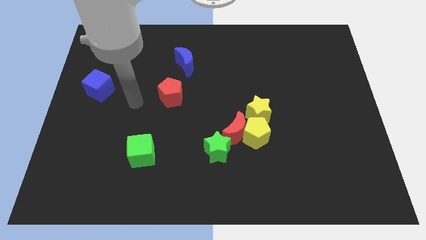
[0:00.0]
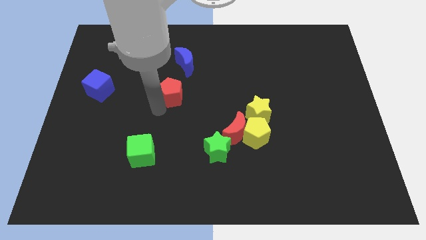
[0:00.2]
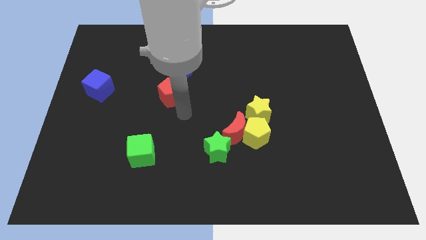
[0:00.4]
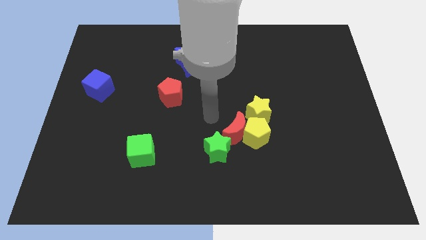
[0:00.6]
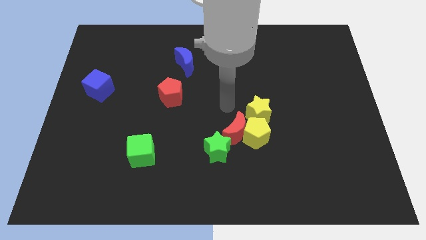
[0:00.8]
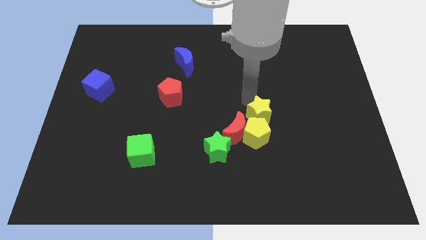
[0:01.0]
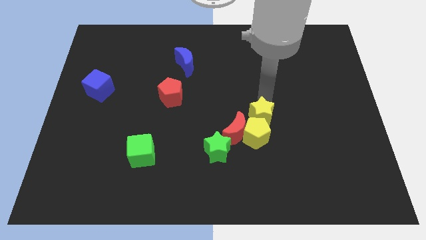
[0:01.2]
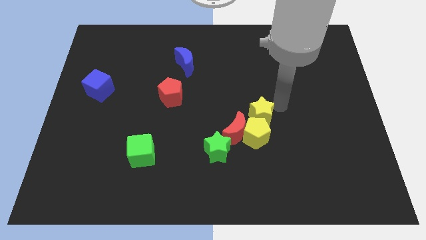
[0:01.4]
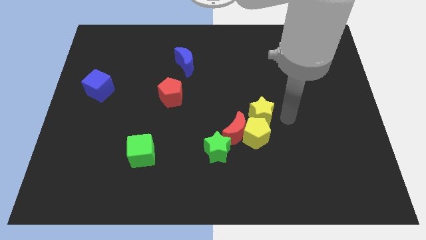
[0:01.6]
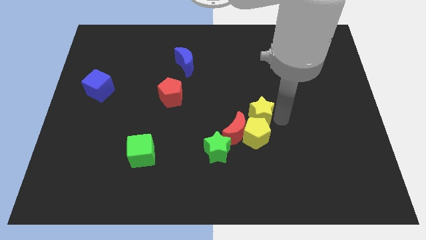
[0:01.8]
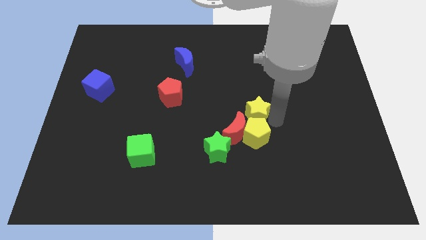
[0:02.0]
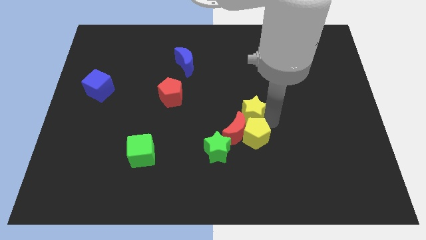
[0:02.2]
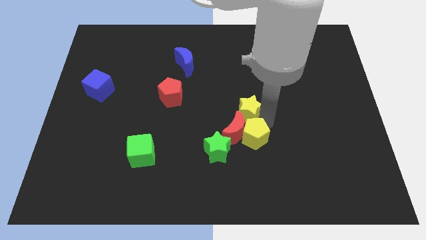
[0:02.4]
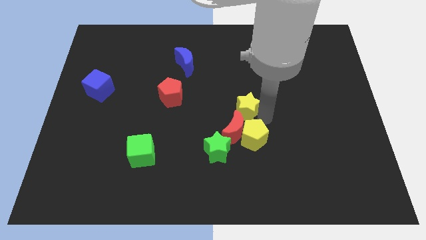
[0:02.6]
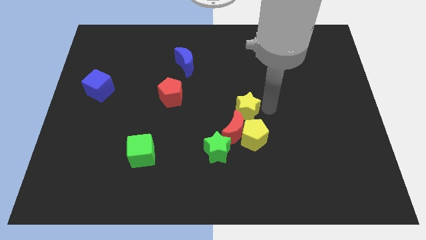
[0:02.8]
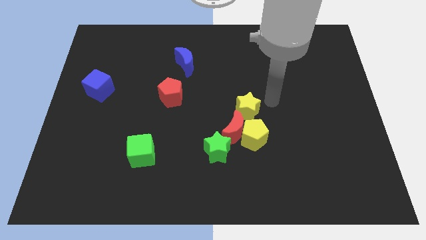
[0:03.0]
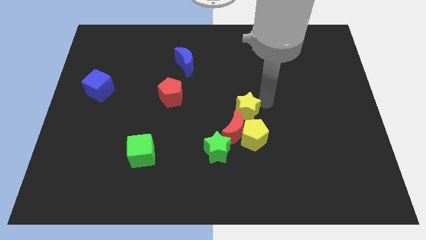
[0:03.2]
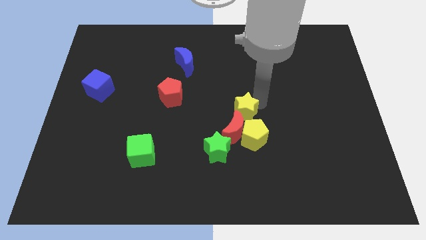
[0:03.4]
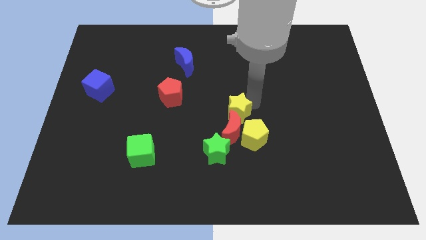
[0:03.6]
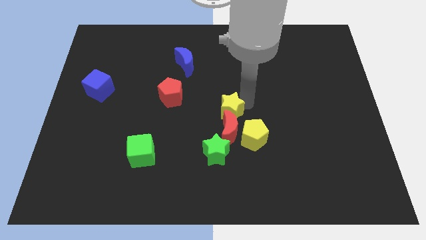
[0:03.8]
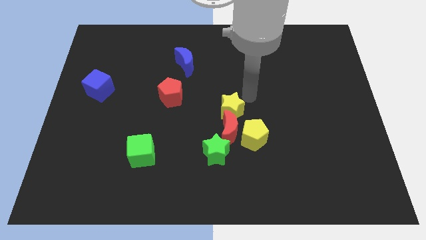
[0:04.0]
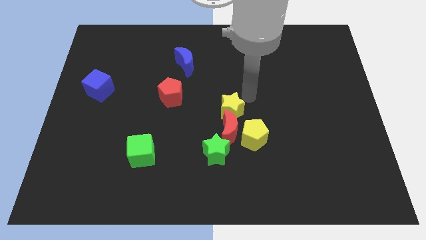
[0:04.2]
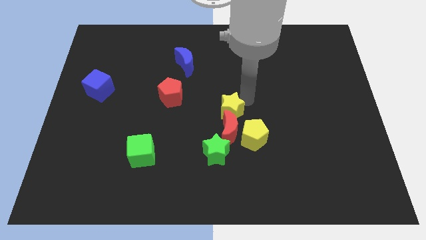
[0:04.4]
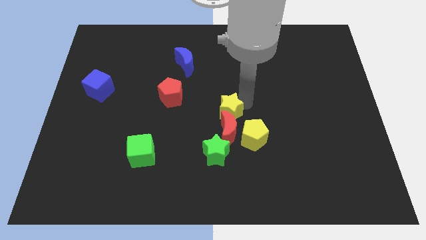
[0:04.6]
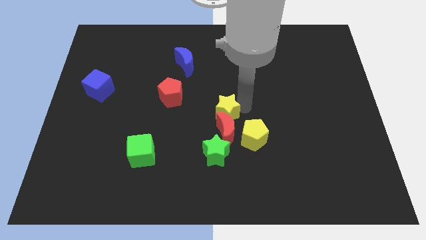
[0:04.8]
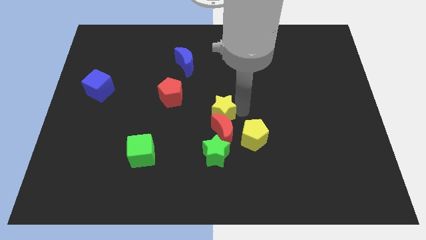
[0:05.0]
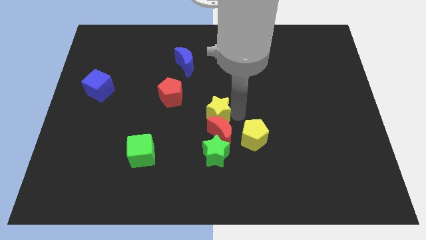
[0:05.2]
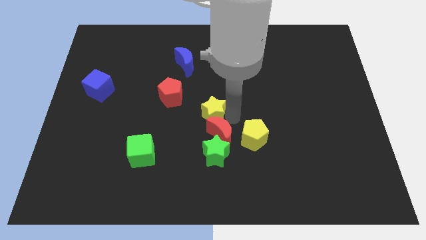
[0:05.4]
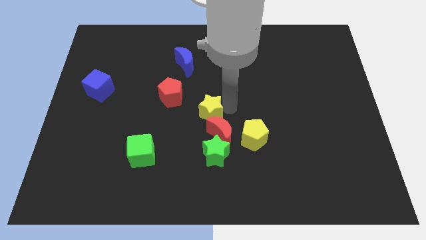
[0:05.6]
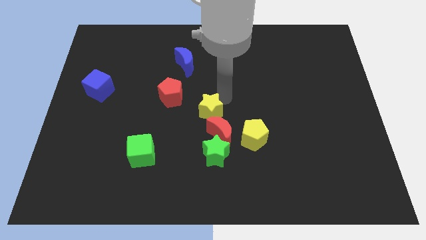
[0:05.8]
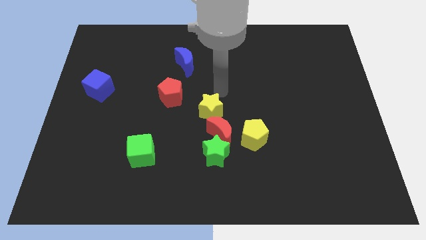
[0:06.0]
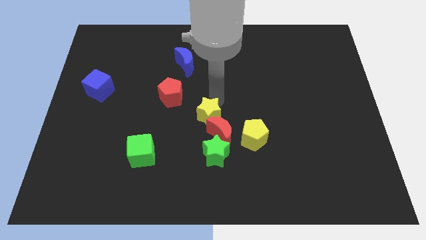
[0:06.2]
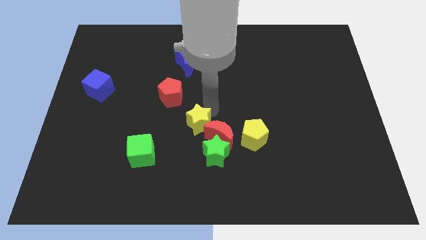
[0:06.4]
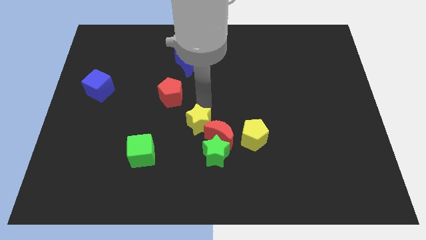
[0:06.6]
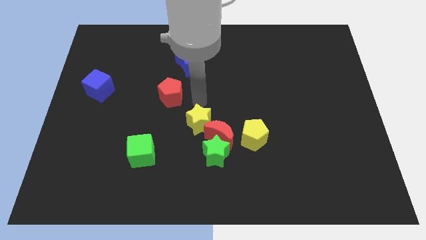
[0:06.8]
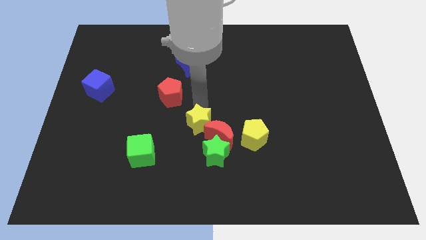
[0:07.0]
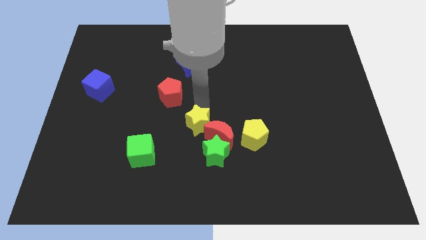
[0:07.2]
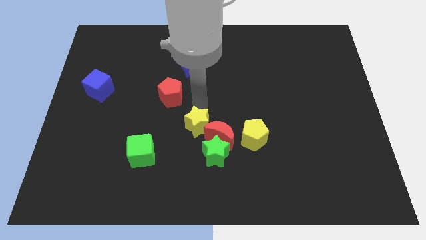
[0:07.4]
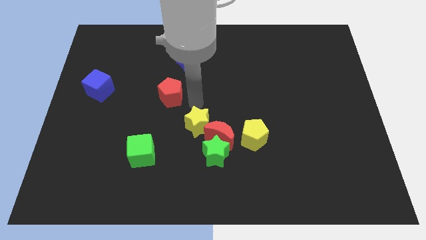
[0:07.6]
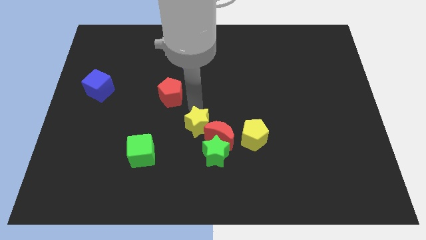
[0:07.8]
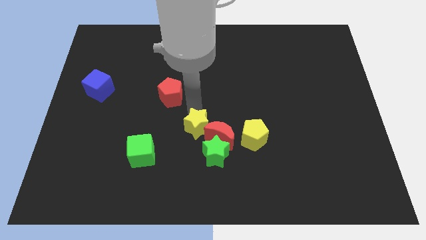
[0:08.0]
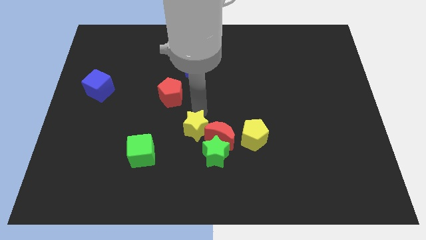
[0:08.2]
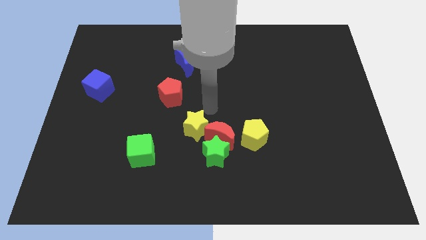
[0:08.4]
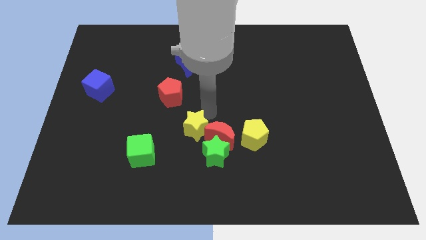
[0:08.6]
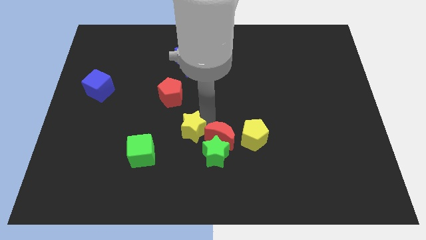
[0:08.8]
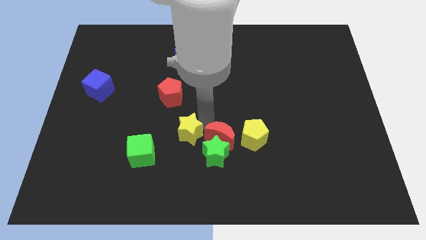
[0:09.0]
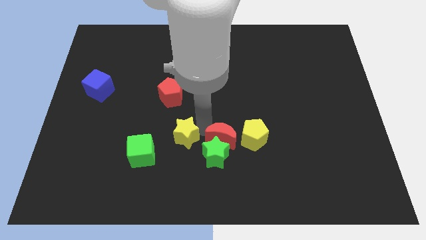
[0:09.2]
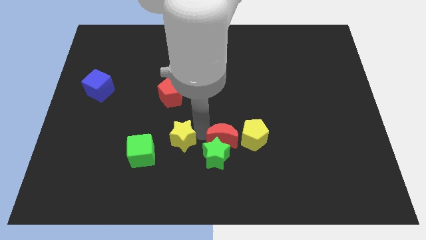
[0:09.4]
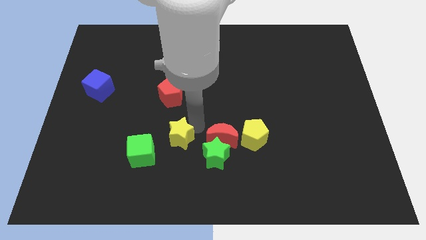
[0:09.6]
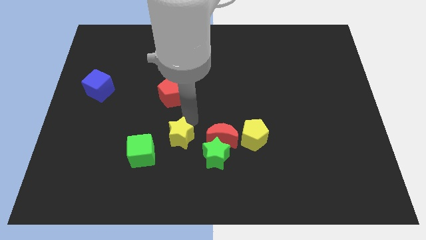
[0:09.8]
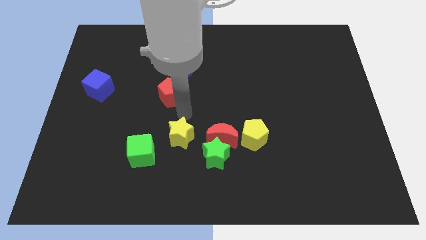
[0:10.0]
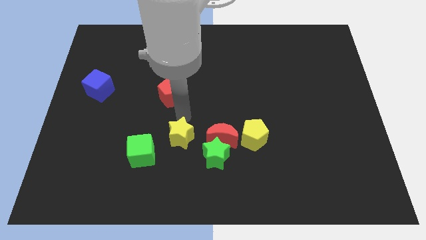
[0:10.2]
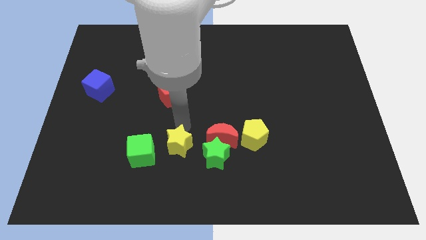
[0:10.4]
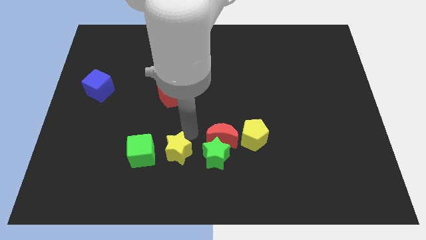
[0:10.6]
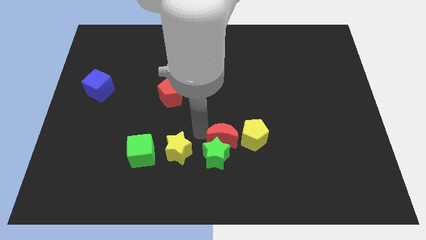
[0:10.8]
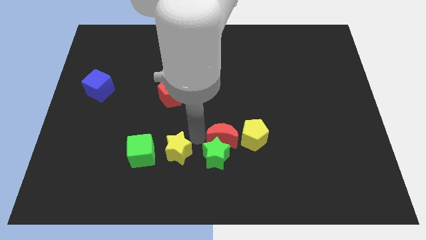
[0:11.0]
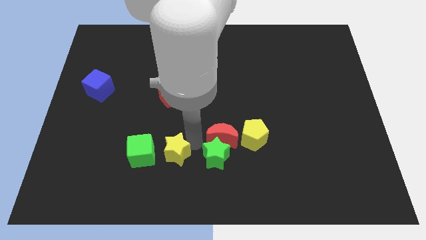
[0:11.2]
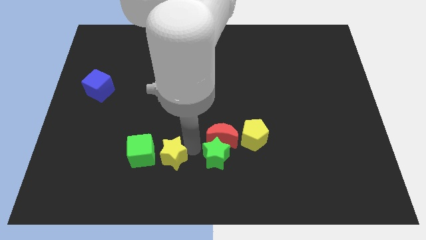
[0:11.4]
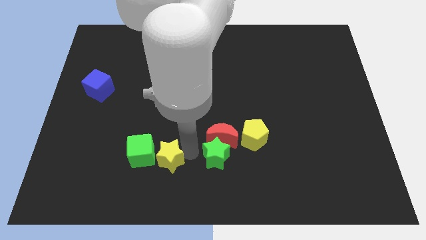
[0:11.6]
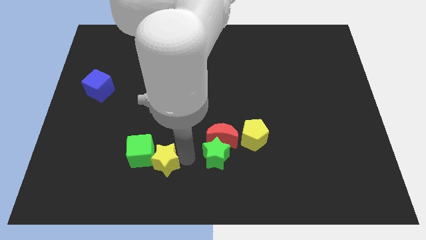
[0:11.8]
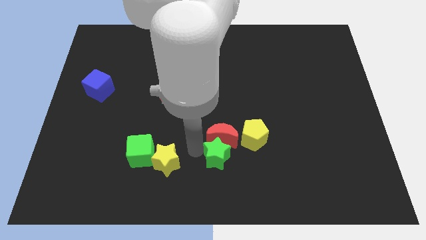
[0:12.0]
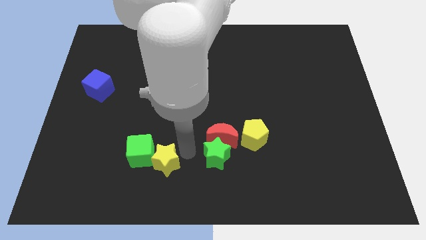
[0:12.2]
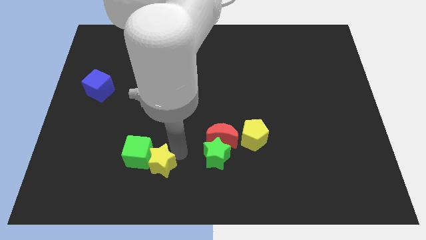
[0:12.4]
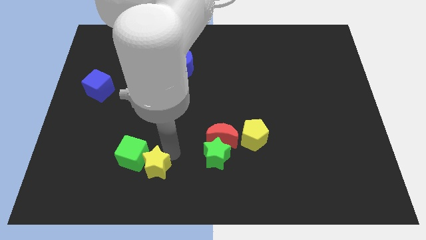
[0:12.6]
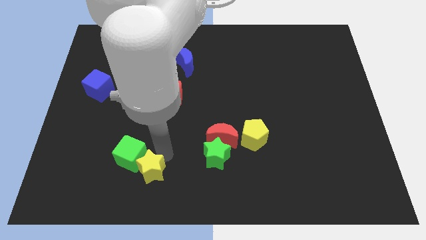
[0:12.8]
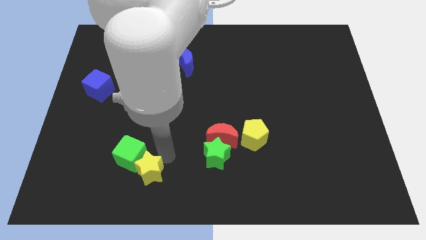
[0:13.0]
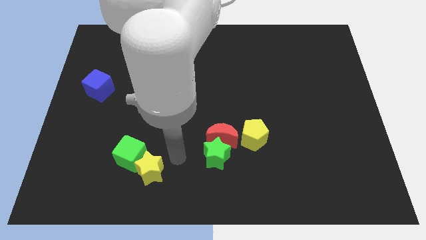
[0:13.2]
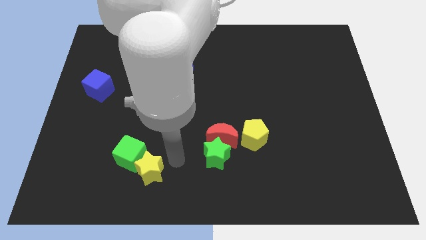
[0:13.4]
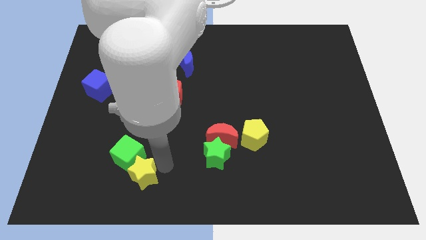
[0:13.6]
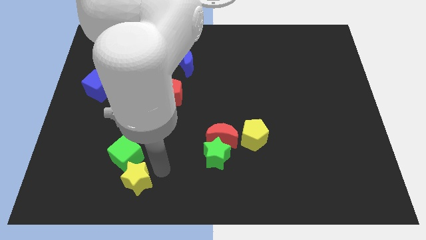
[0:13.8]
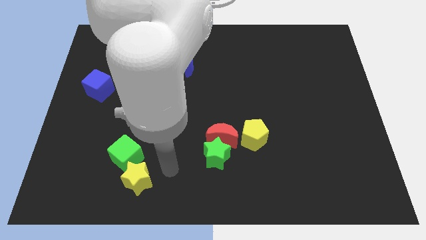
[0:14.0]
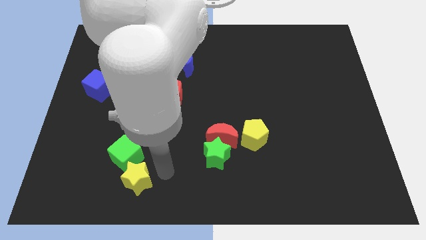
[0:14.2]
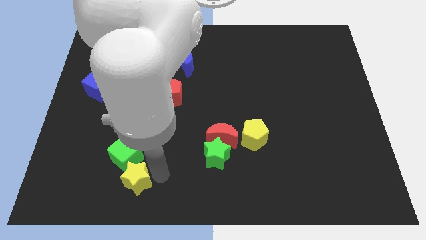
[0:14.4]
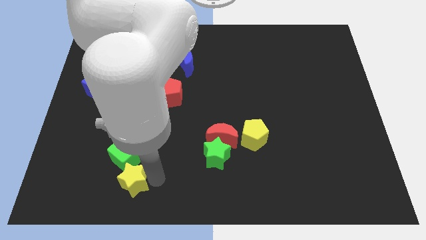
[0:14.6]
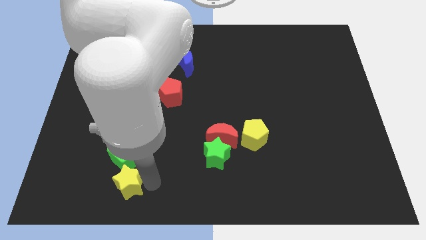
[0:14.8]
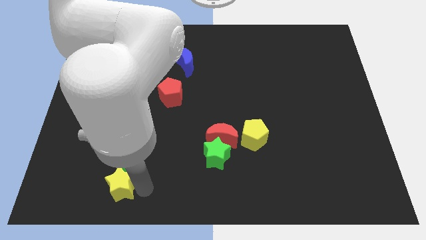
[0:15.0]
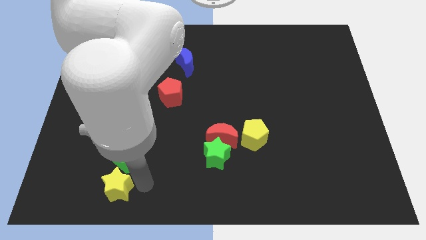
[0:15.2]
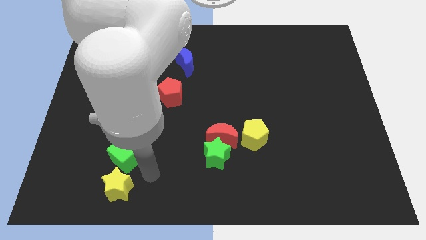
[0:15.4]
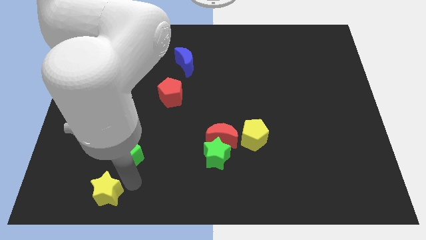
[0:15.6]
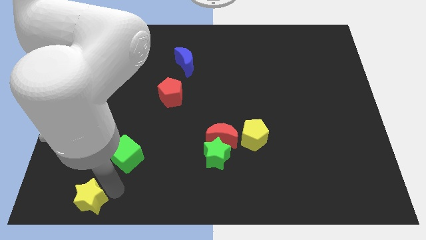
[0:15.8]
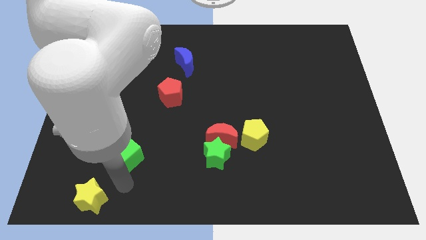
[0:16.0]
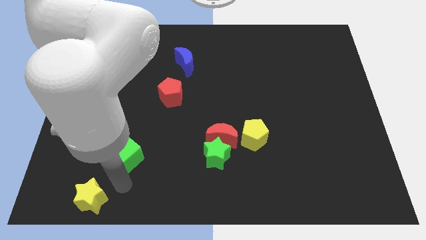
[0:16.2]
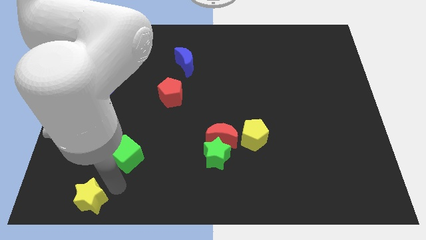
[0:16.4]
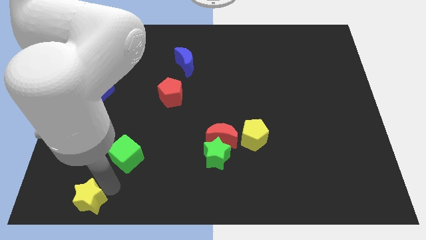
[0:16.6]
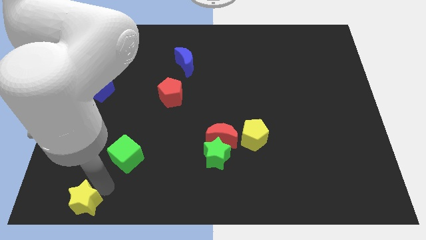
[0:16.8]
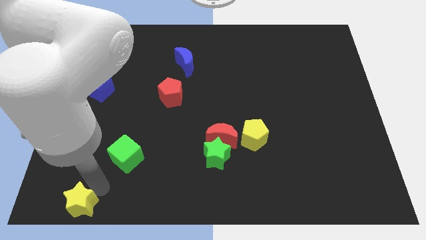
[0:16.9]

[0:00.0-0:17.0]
put the yellow star to the bottom left
